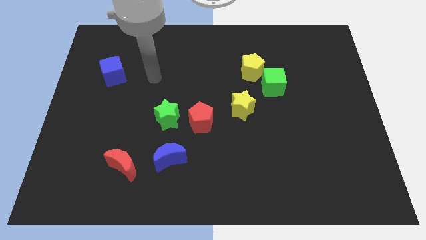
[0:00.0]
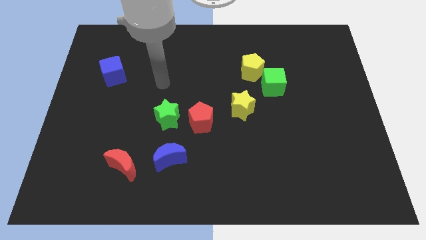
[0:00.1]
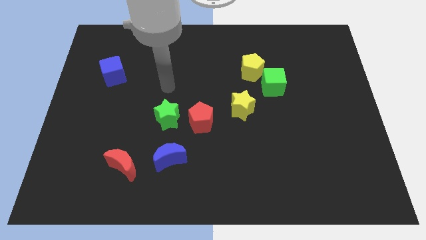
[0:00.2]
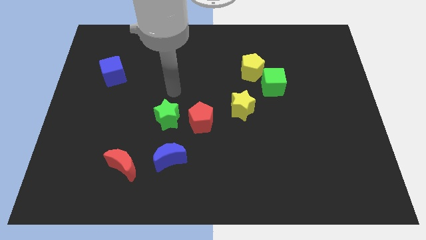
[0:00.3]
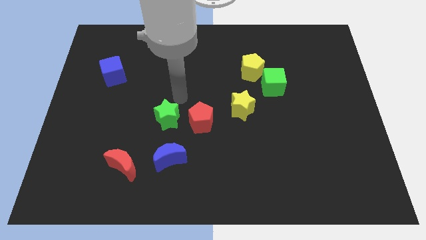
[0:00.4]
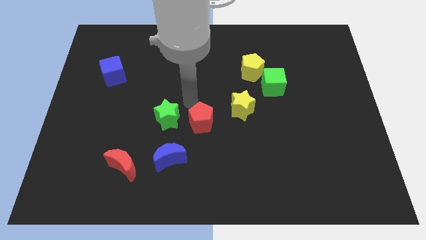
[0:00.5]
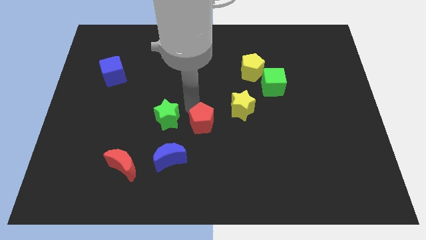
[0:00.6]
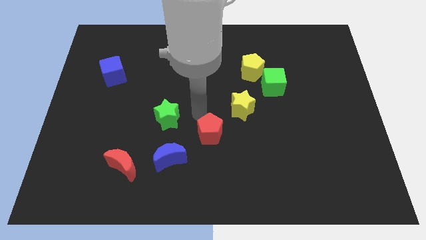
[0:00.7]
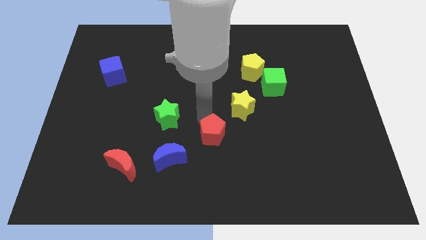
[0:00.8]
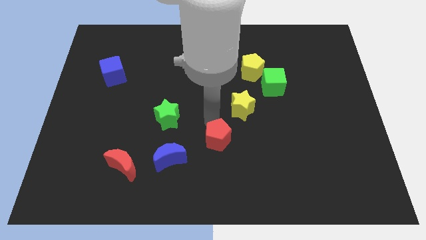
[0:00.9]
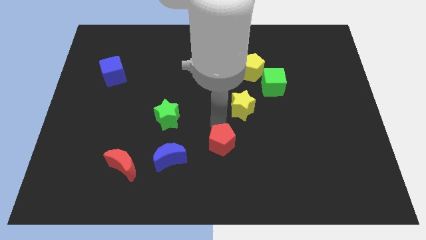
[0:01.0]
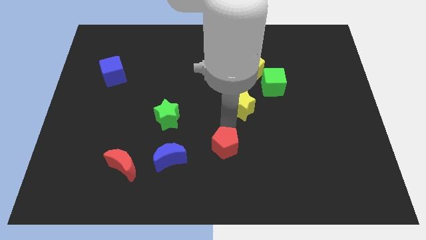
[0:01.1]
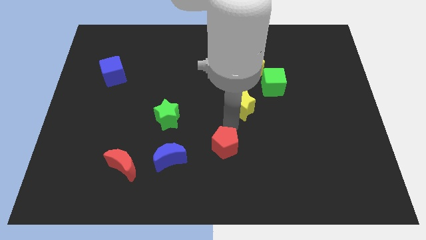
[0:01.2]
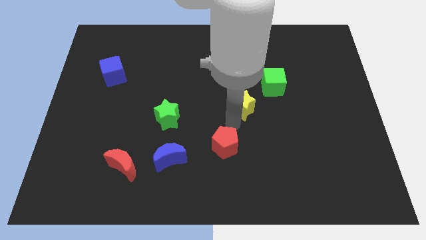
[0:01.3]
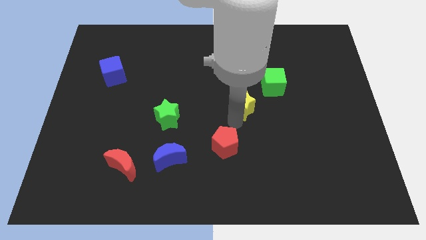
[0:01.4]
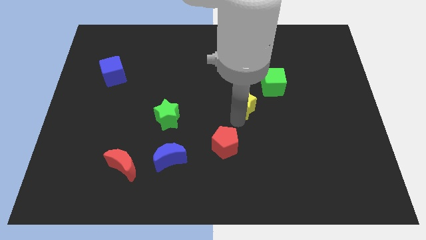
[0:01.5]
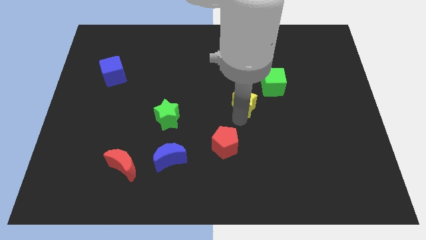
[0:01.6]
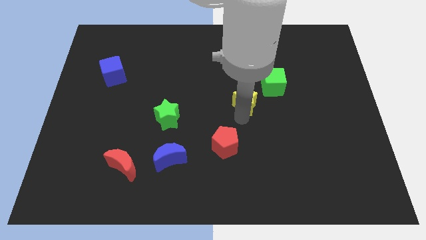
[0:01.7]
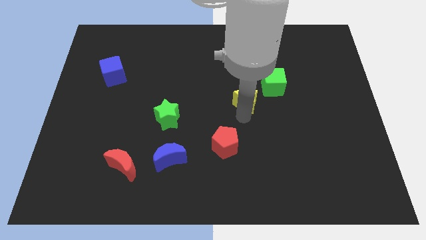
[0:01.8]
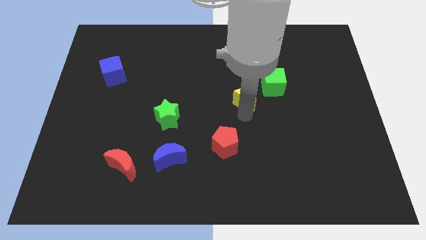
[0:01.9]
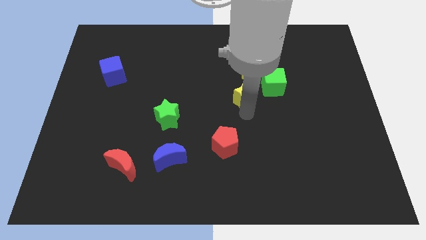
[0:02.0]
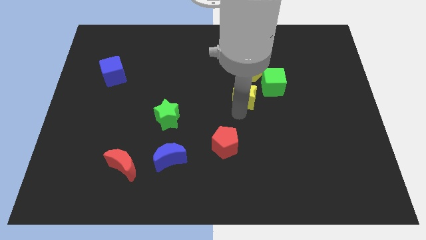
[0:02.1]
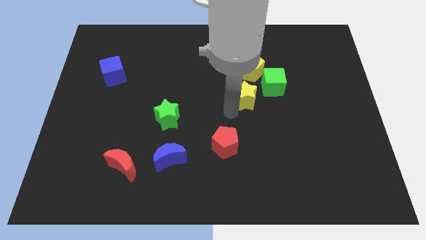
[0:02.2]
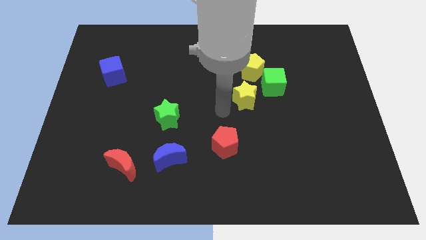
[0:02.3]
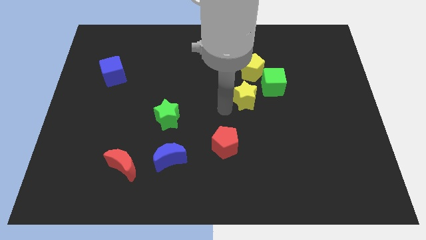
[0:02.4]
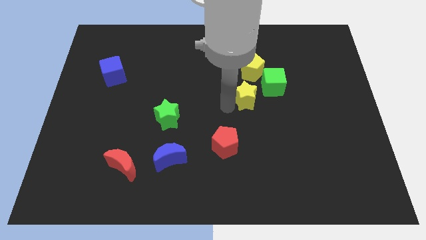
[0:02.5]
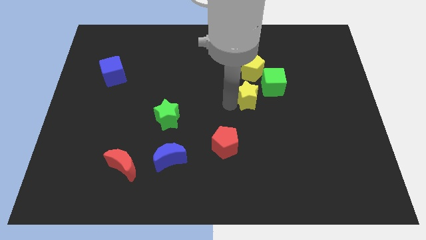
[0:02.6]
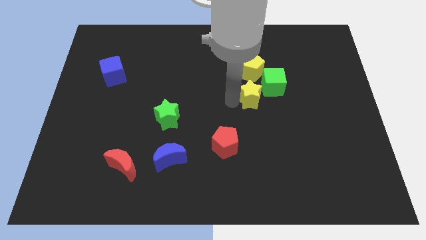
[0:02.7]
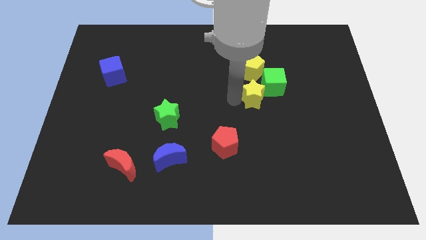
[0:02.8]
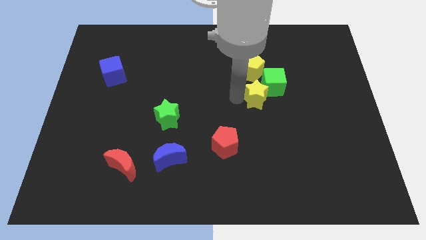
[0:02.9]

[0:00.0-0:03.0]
put the yellow star to the green cube

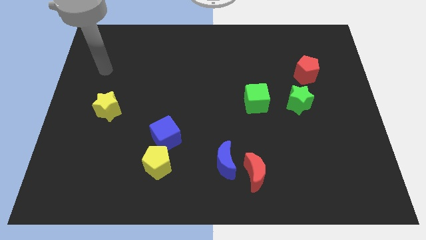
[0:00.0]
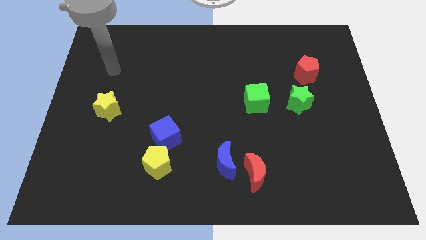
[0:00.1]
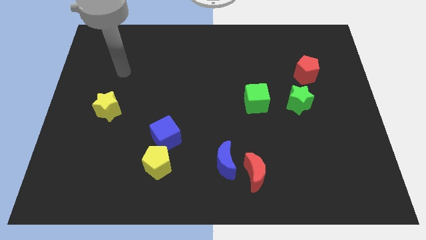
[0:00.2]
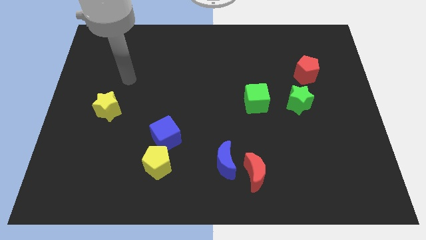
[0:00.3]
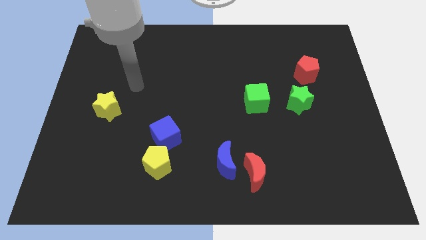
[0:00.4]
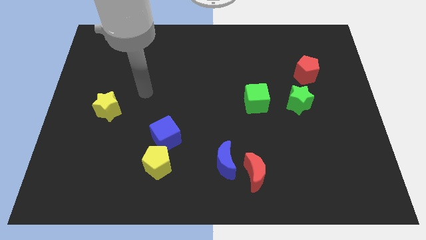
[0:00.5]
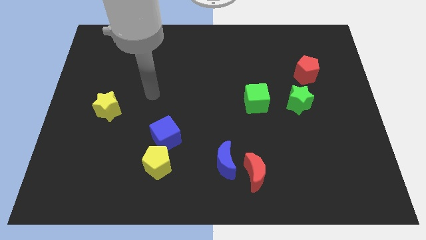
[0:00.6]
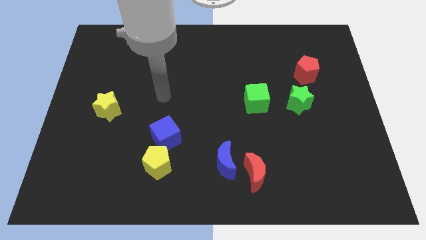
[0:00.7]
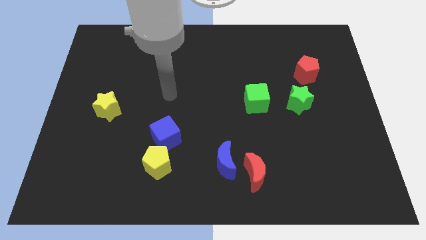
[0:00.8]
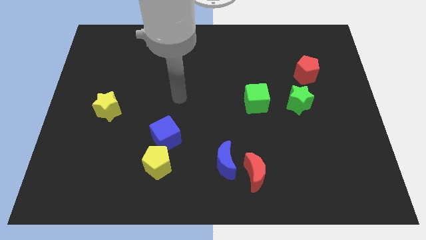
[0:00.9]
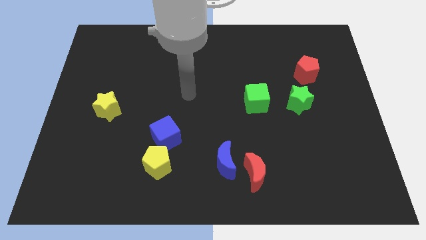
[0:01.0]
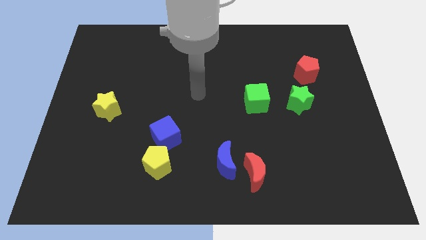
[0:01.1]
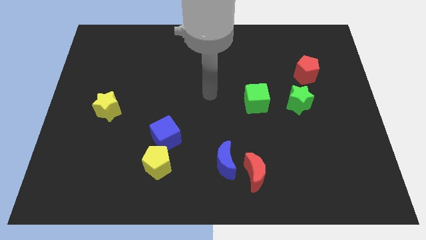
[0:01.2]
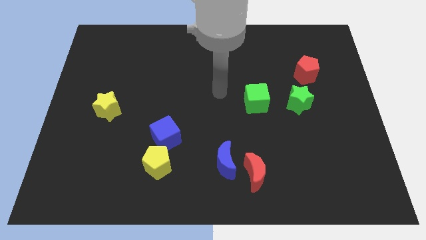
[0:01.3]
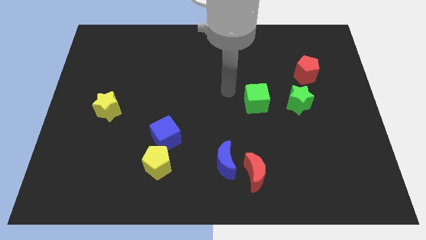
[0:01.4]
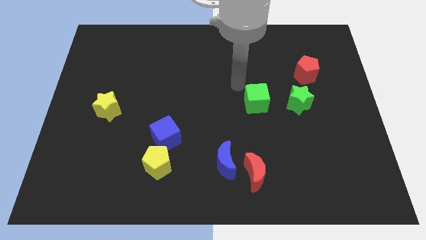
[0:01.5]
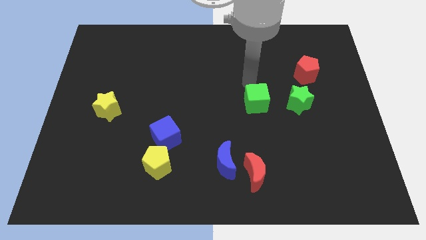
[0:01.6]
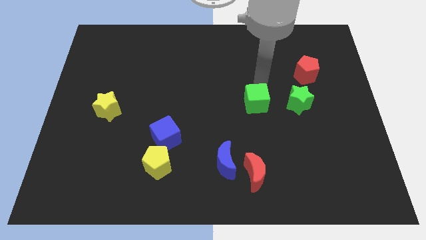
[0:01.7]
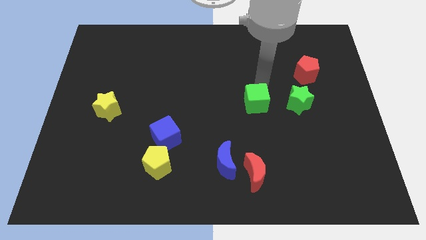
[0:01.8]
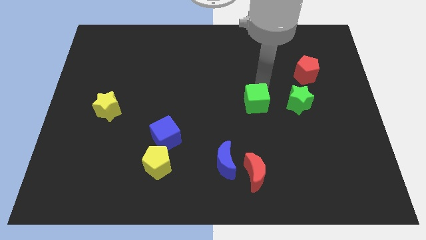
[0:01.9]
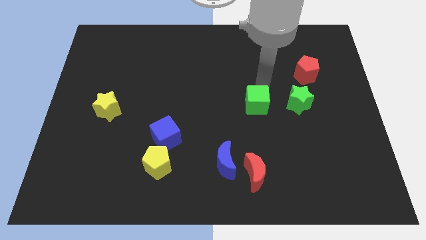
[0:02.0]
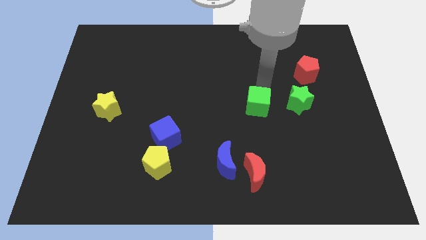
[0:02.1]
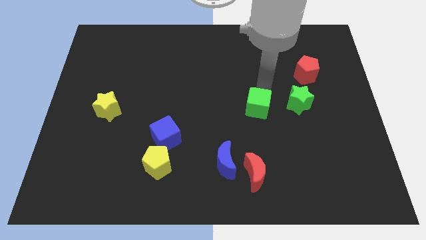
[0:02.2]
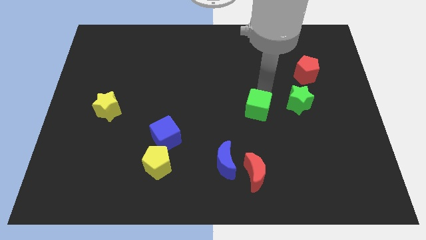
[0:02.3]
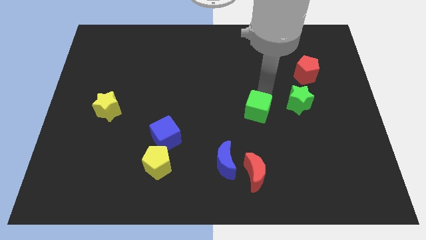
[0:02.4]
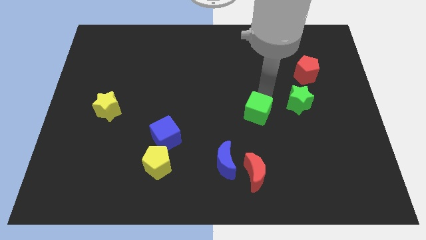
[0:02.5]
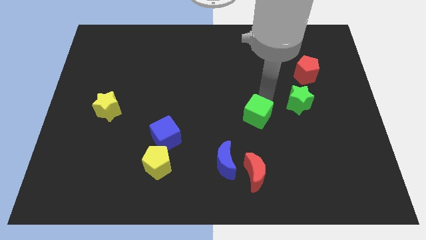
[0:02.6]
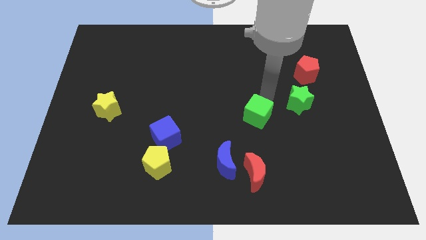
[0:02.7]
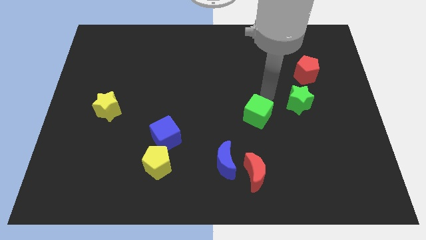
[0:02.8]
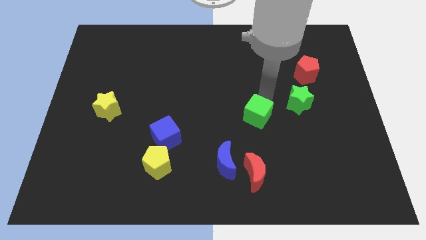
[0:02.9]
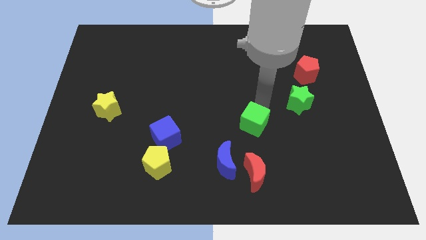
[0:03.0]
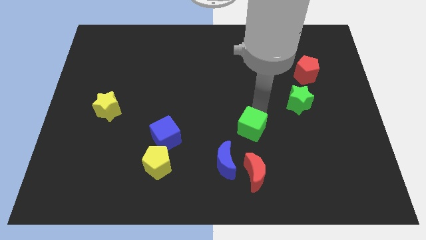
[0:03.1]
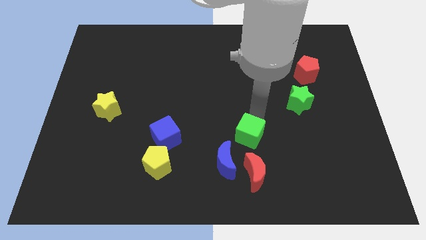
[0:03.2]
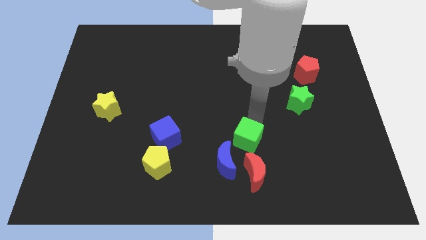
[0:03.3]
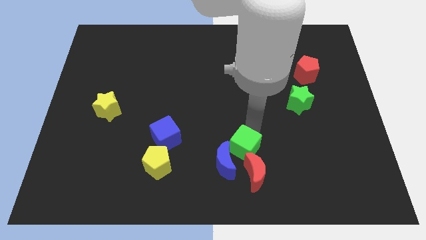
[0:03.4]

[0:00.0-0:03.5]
slide the green cube to the blue moon

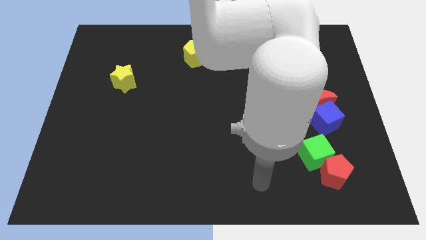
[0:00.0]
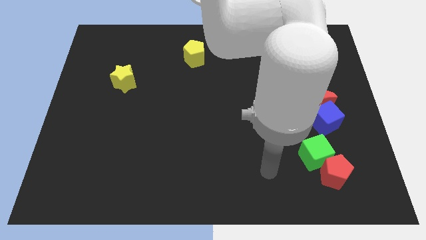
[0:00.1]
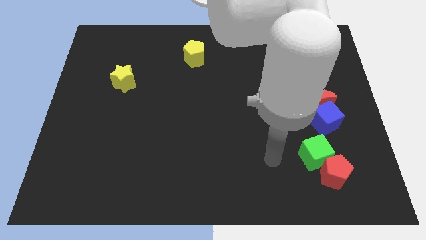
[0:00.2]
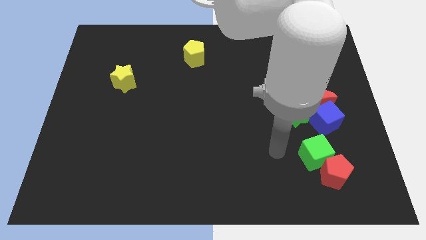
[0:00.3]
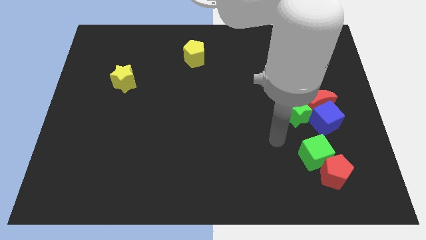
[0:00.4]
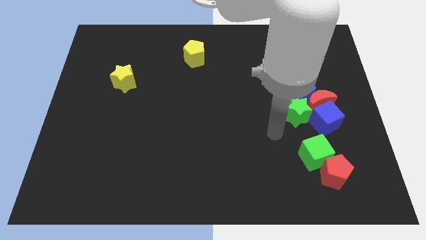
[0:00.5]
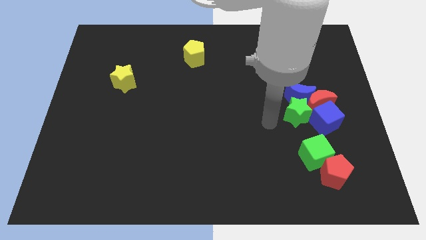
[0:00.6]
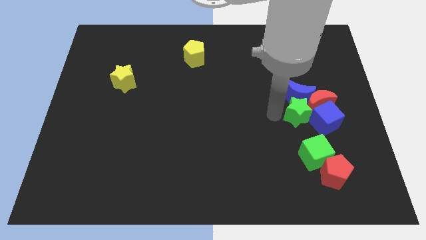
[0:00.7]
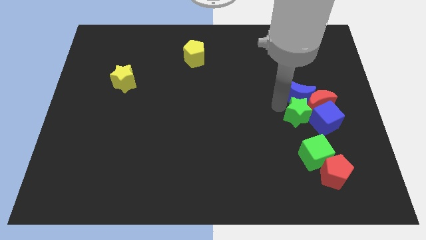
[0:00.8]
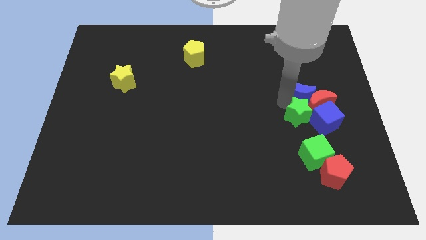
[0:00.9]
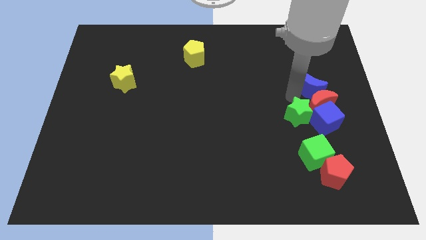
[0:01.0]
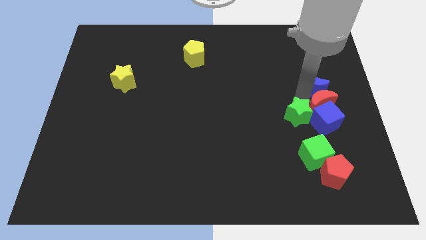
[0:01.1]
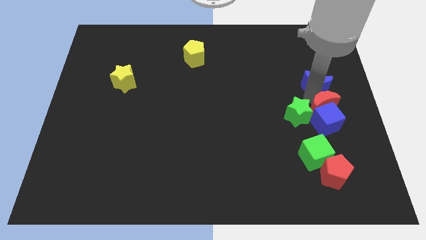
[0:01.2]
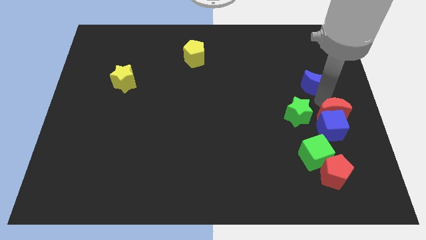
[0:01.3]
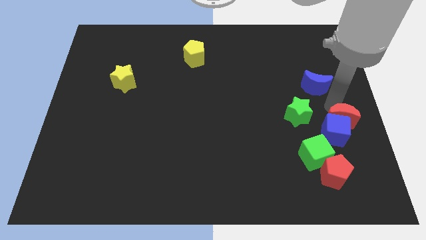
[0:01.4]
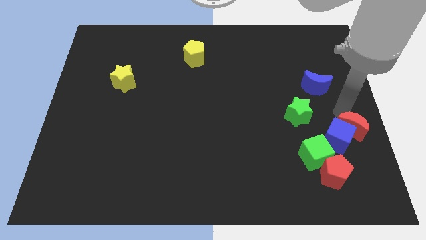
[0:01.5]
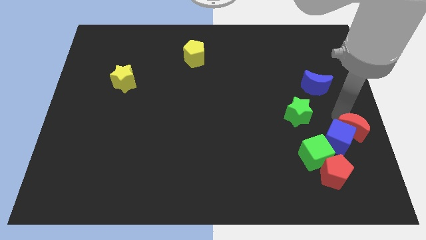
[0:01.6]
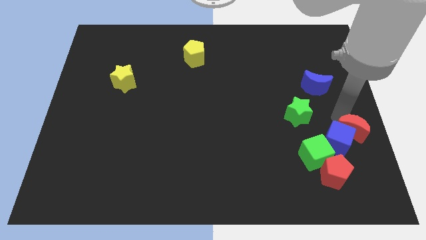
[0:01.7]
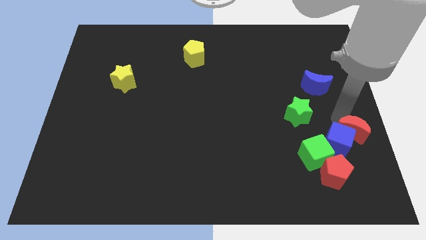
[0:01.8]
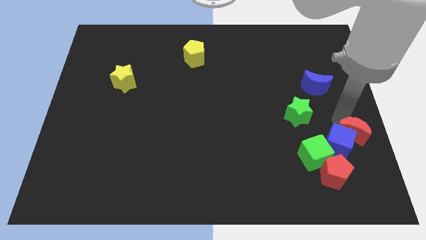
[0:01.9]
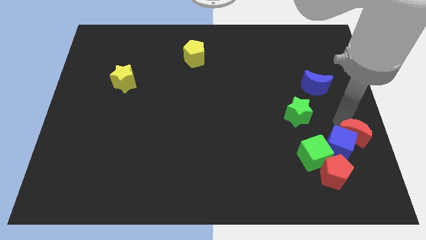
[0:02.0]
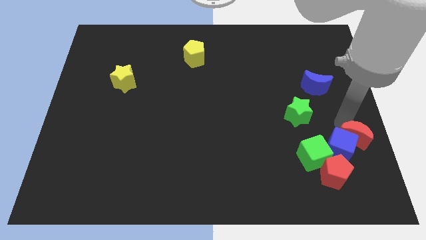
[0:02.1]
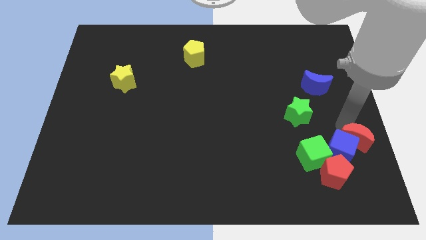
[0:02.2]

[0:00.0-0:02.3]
put the blue cube next to the red pentagon
